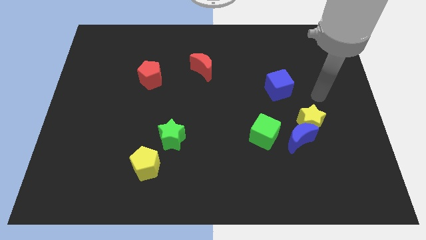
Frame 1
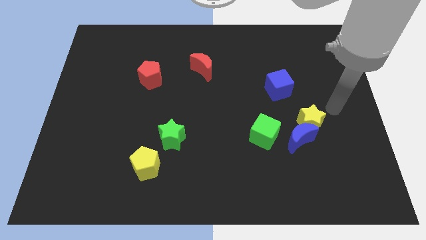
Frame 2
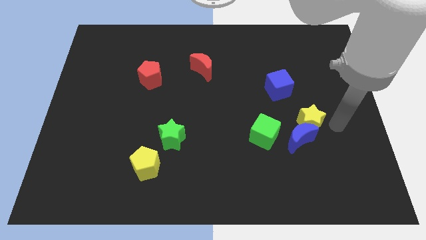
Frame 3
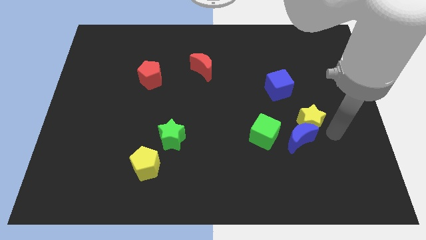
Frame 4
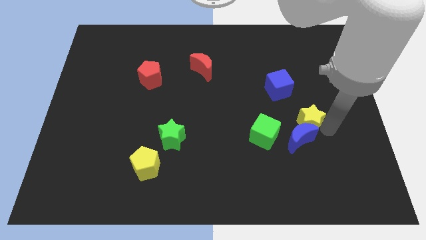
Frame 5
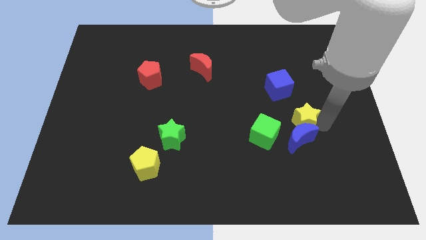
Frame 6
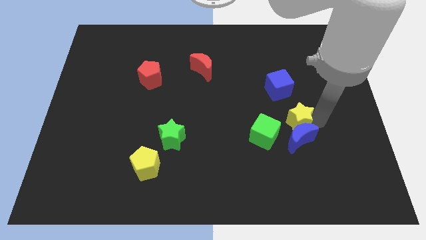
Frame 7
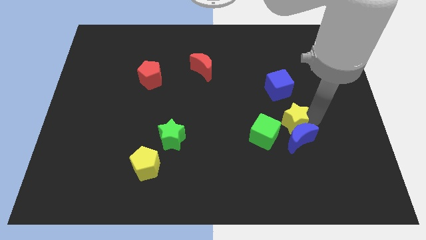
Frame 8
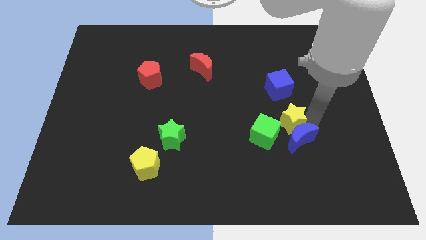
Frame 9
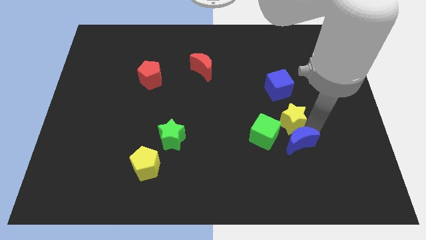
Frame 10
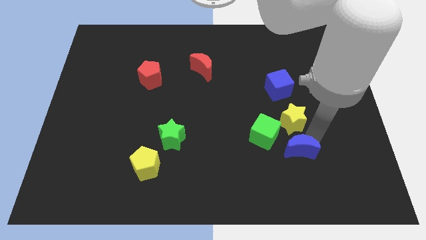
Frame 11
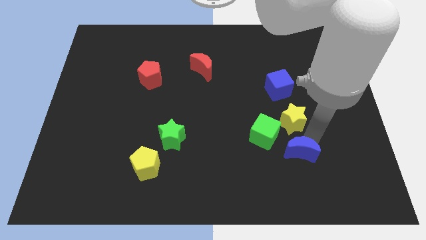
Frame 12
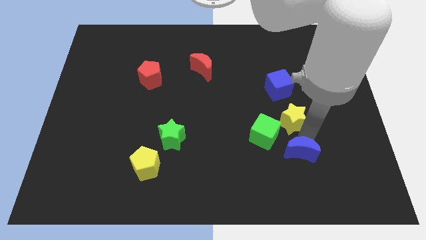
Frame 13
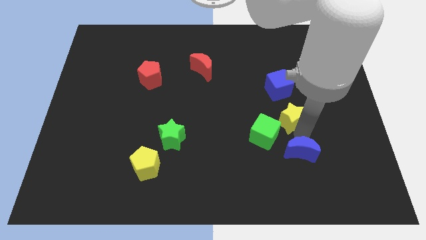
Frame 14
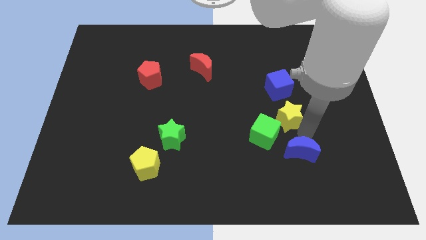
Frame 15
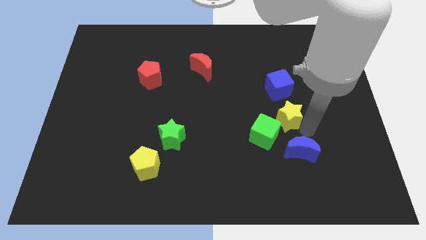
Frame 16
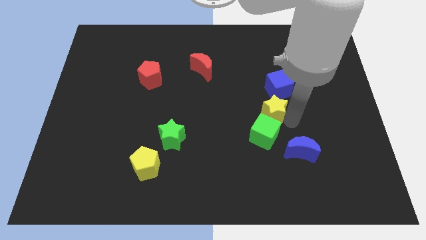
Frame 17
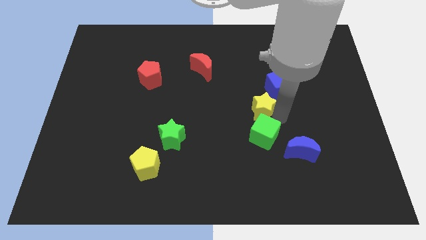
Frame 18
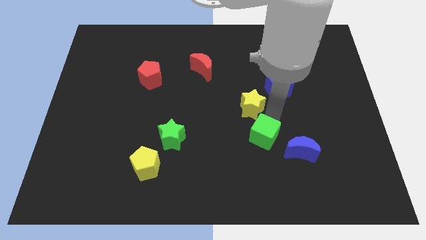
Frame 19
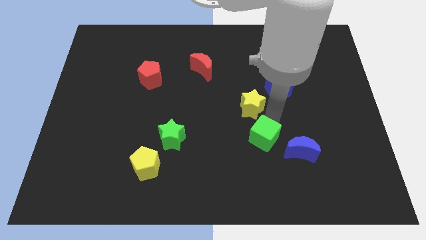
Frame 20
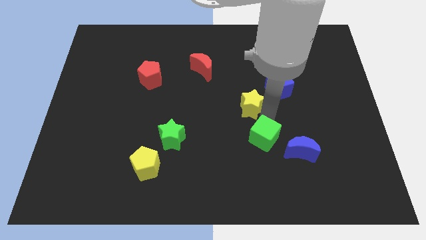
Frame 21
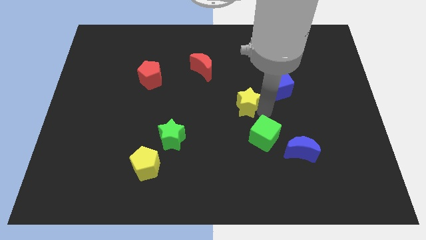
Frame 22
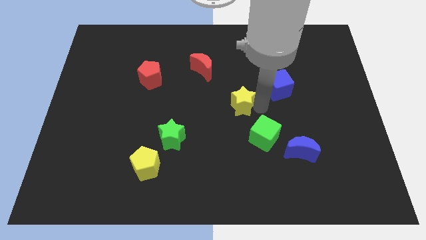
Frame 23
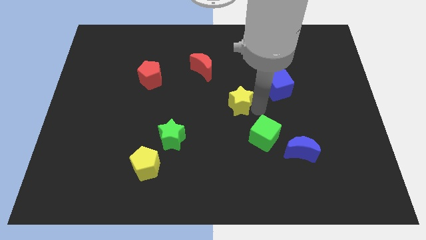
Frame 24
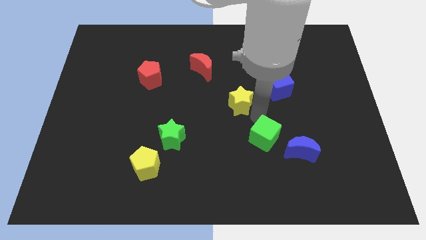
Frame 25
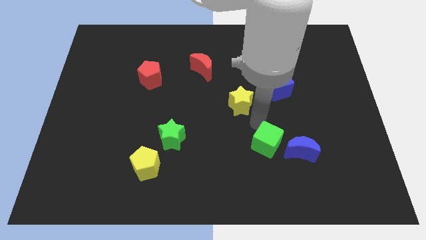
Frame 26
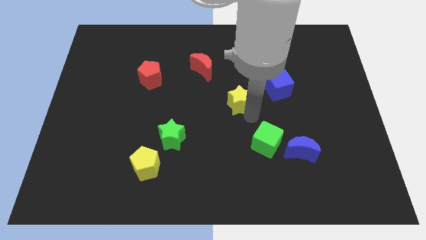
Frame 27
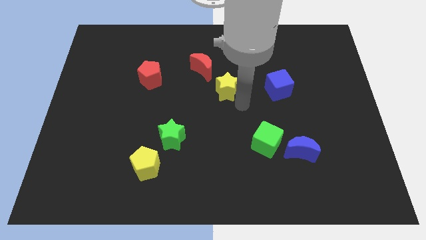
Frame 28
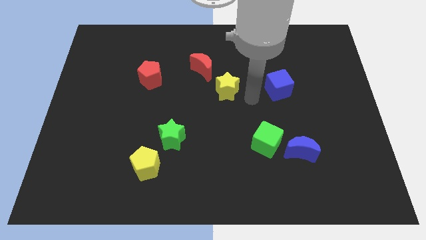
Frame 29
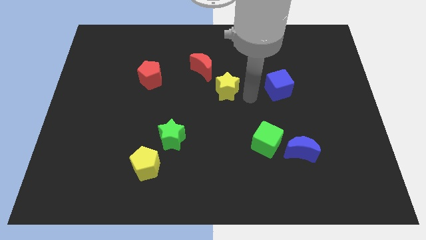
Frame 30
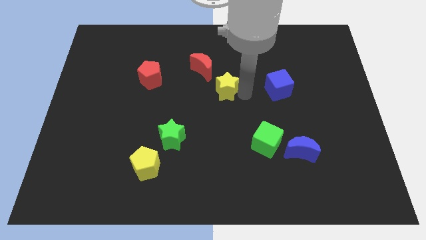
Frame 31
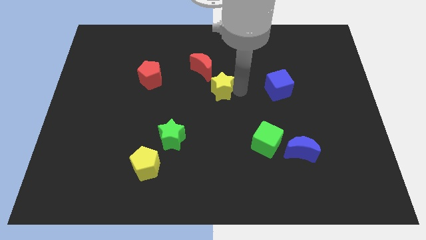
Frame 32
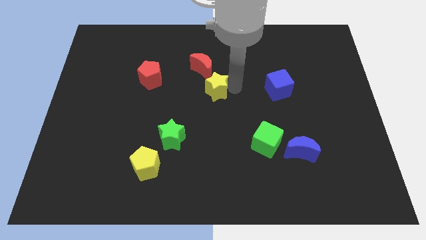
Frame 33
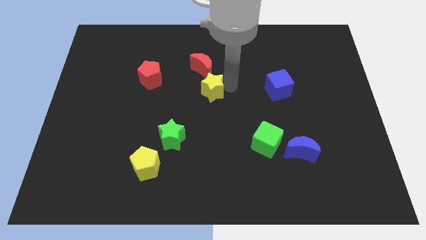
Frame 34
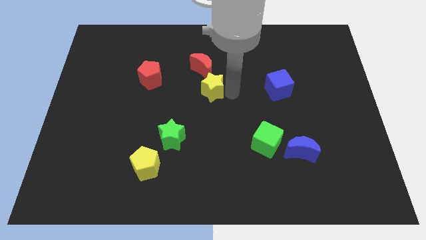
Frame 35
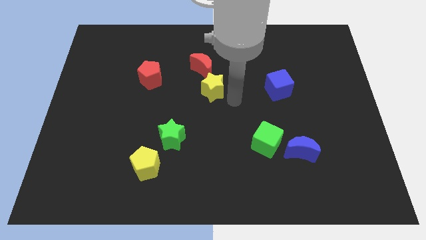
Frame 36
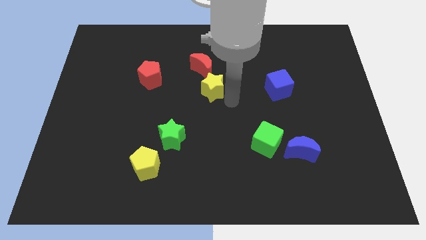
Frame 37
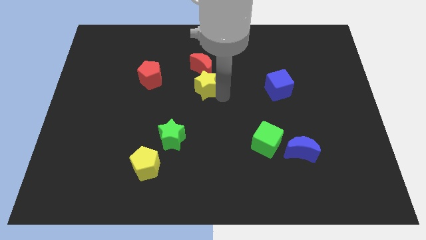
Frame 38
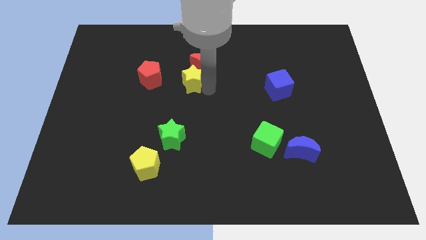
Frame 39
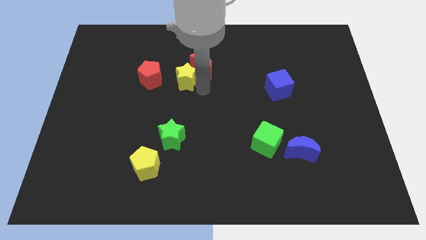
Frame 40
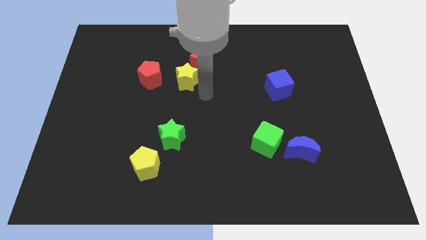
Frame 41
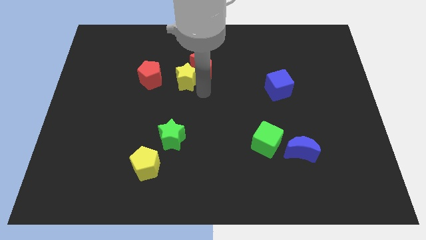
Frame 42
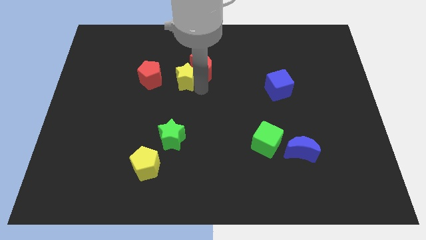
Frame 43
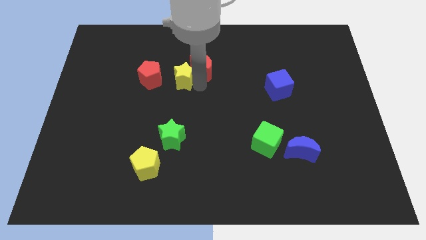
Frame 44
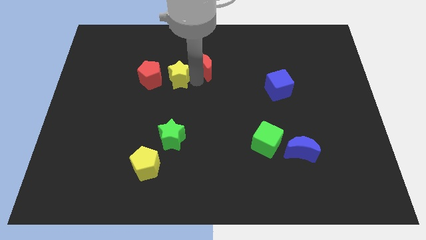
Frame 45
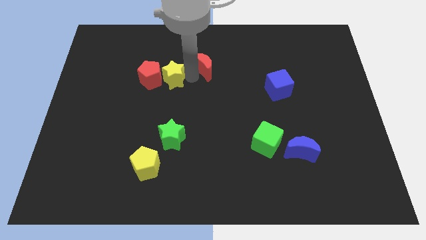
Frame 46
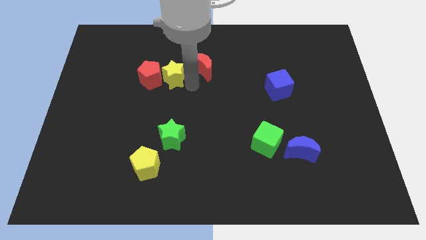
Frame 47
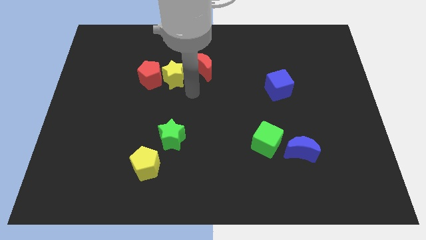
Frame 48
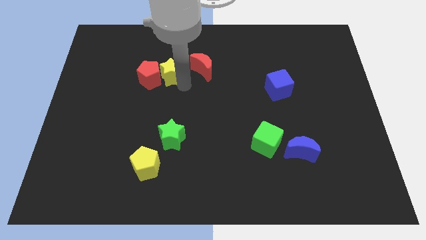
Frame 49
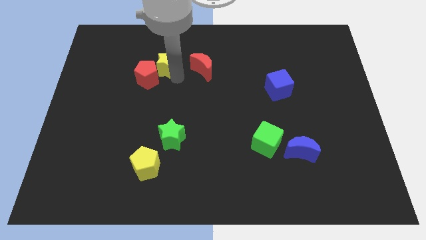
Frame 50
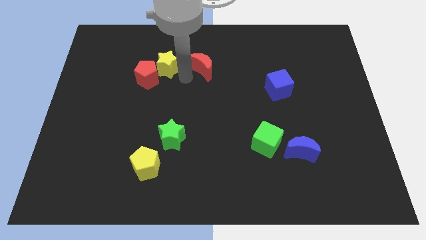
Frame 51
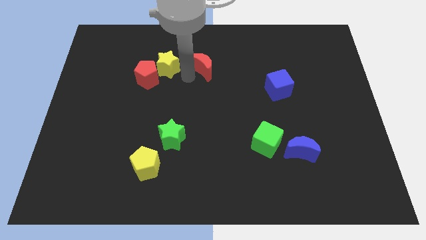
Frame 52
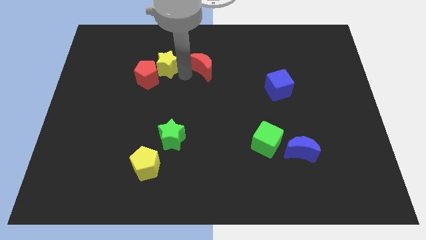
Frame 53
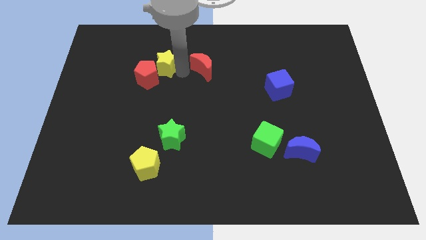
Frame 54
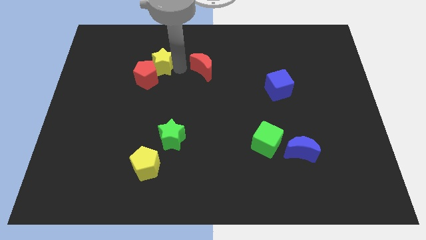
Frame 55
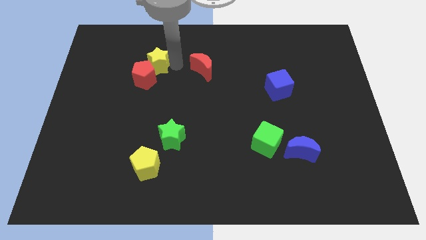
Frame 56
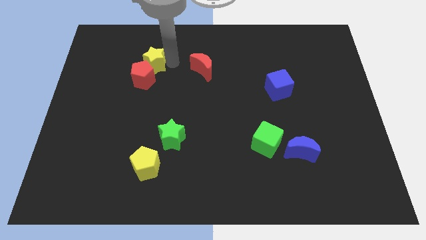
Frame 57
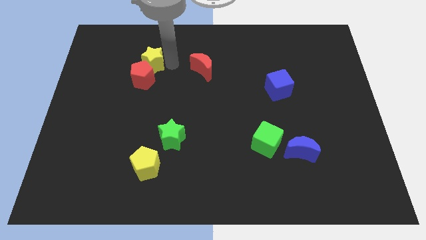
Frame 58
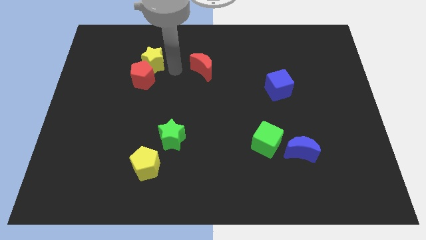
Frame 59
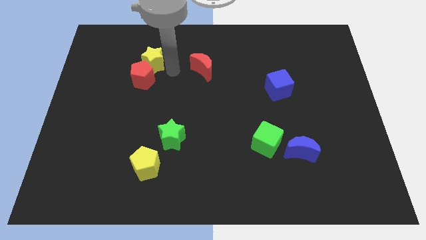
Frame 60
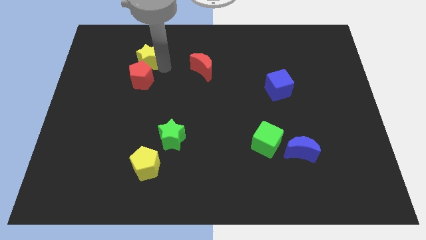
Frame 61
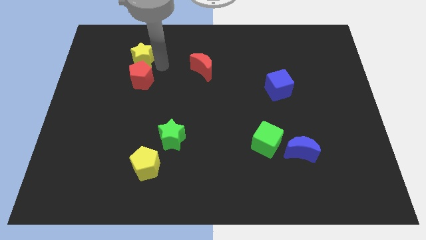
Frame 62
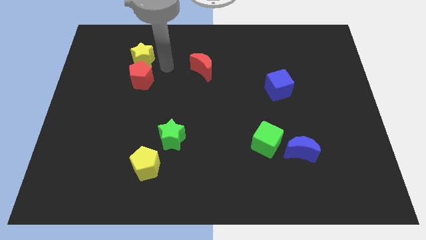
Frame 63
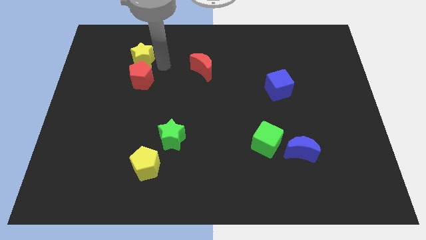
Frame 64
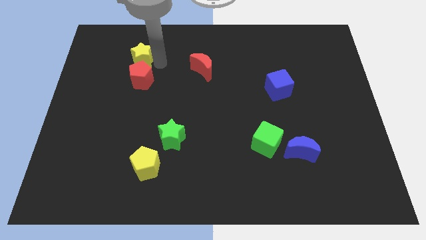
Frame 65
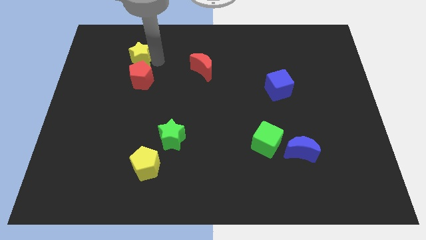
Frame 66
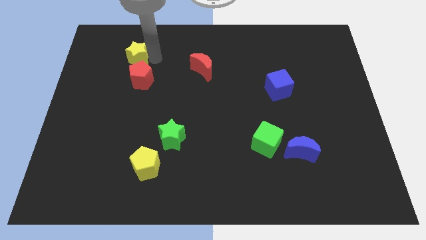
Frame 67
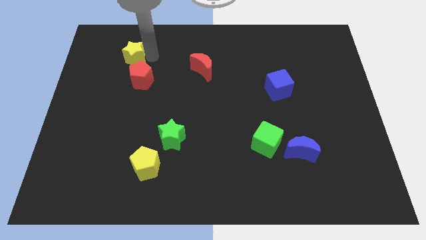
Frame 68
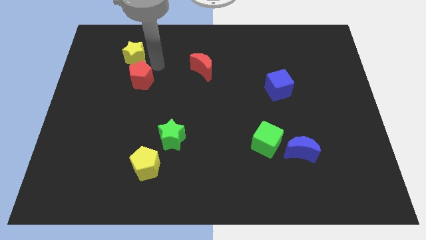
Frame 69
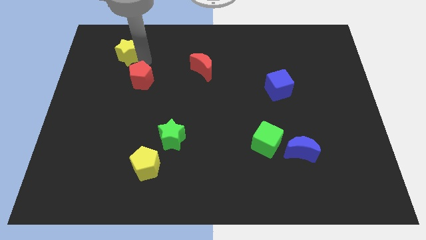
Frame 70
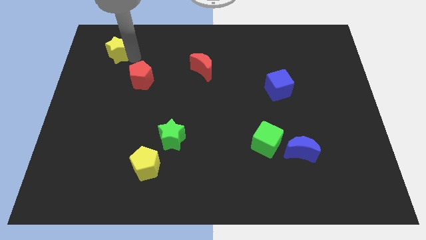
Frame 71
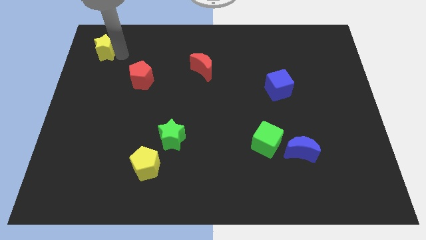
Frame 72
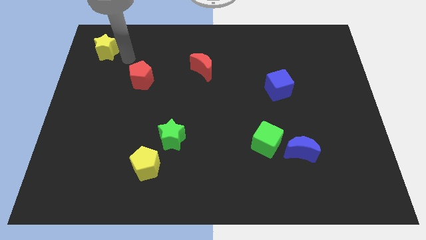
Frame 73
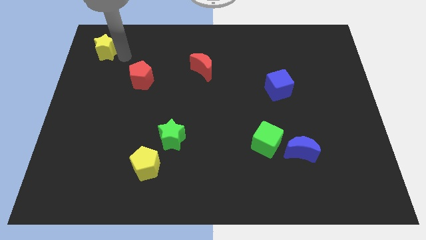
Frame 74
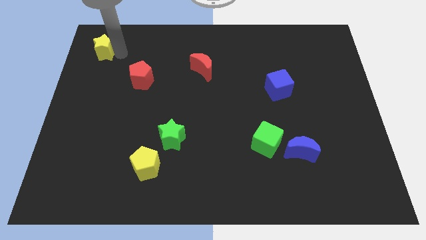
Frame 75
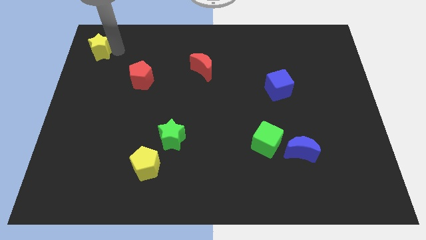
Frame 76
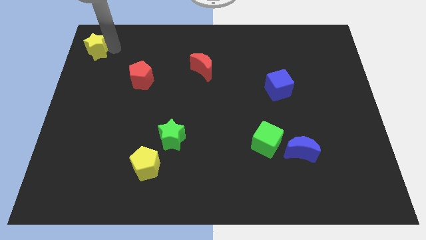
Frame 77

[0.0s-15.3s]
push the yellow star to the upper left corner
